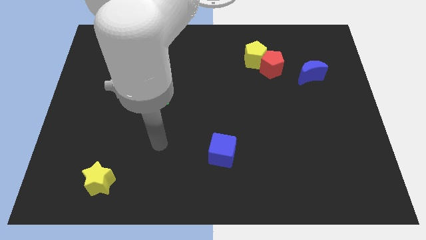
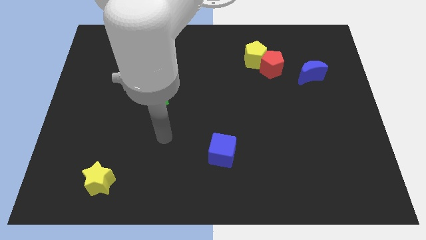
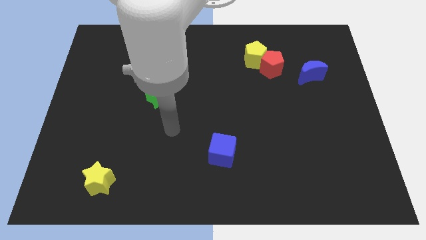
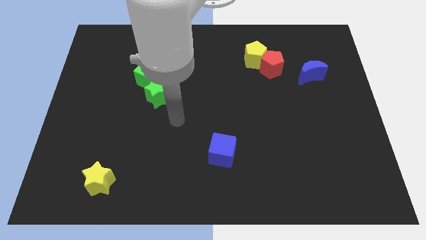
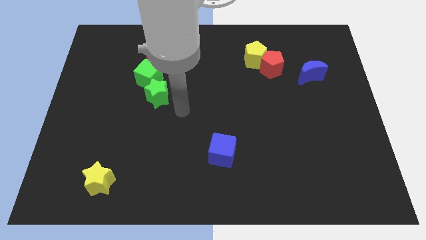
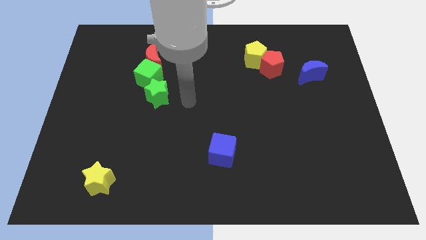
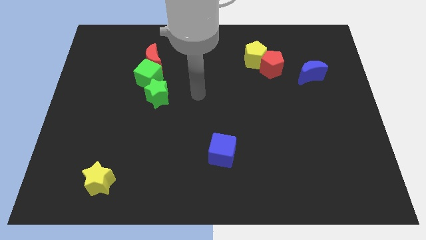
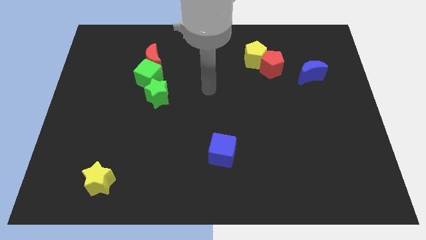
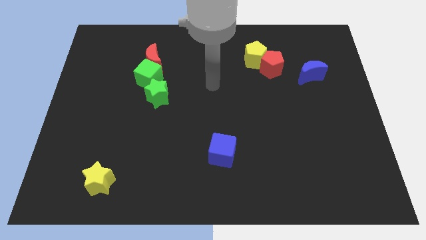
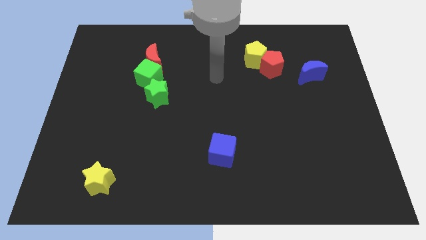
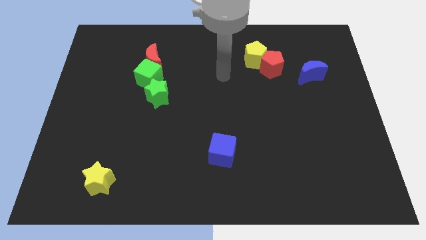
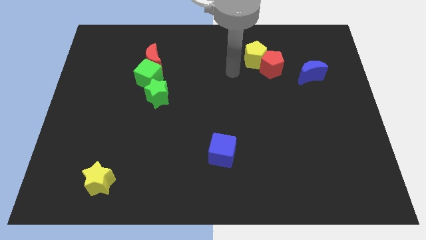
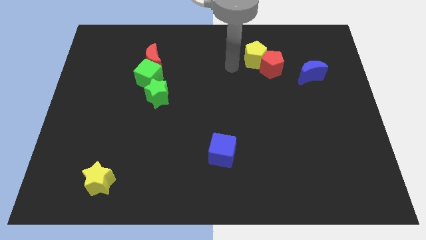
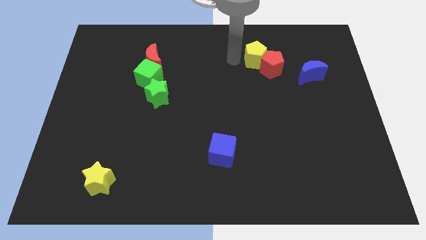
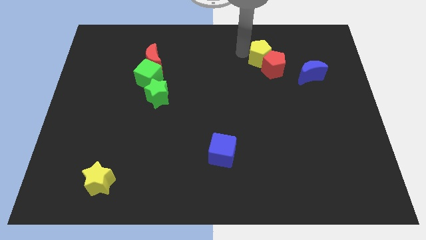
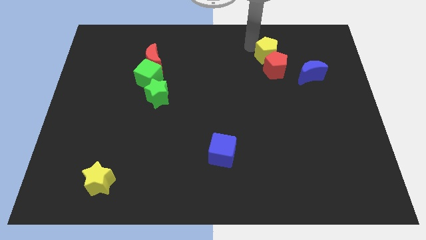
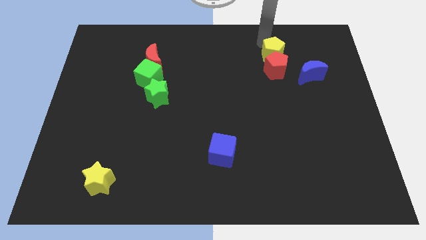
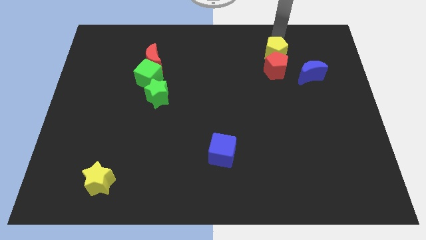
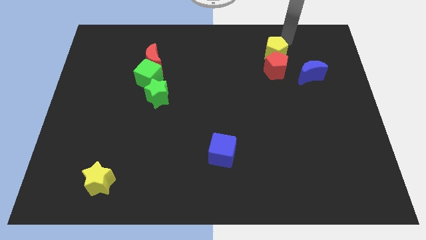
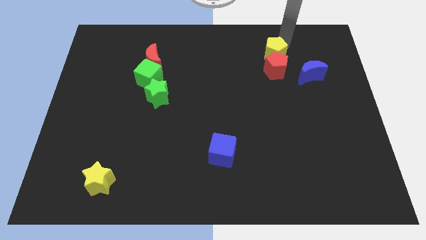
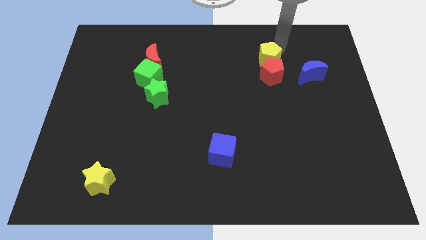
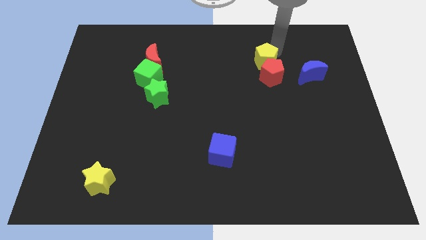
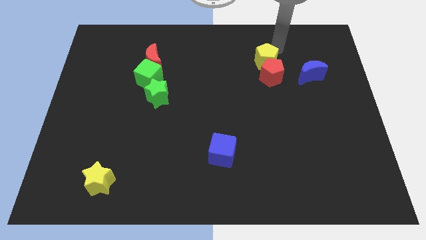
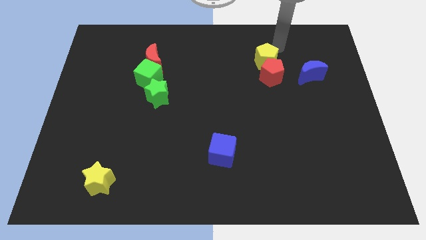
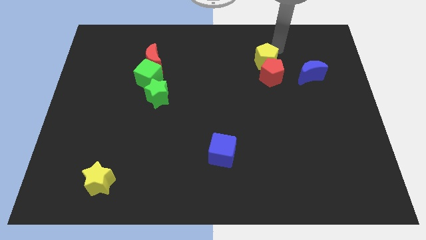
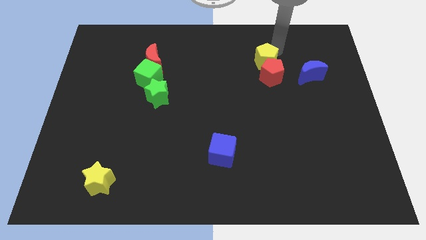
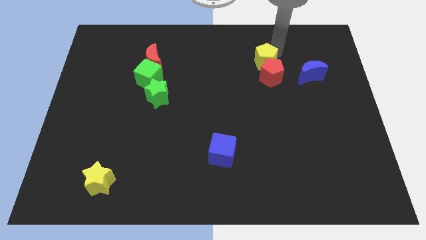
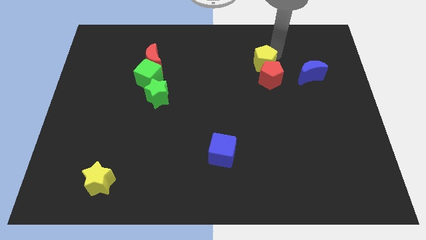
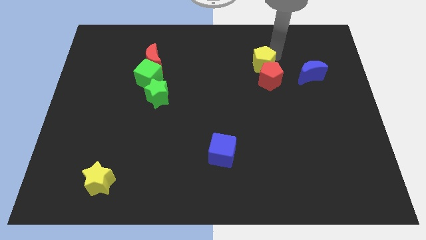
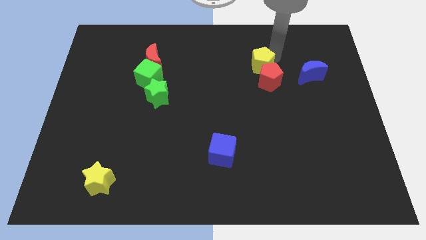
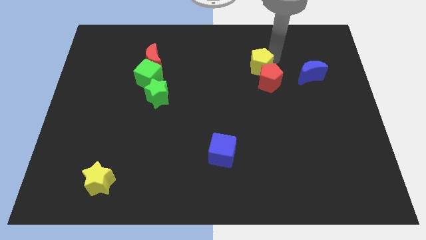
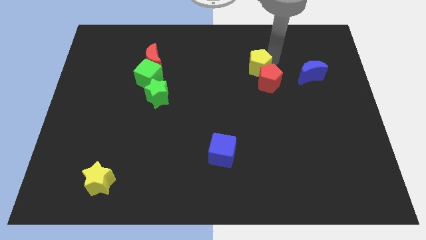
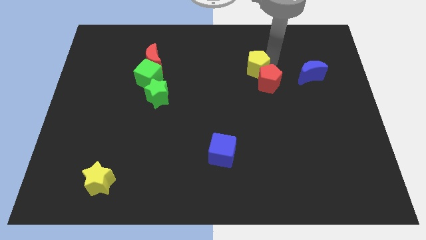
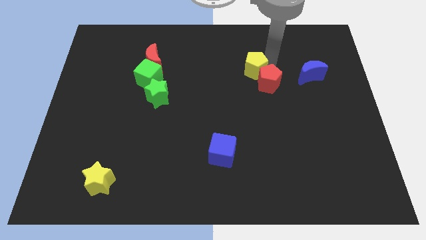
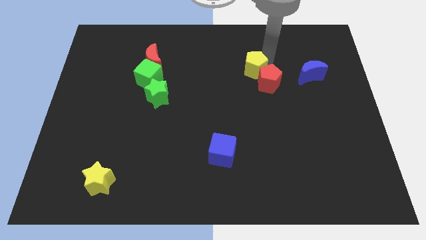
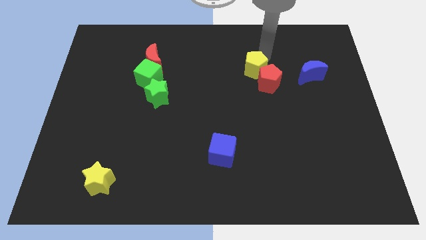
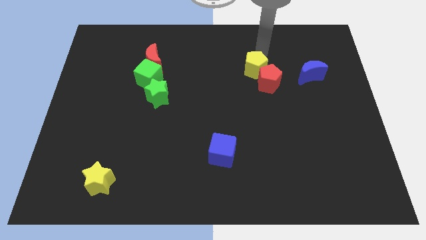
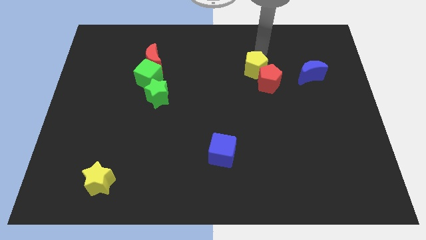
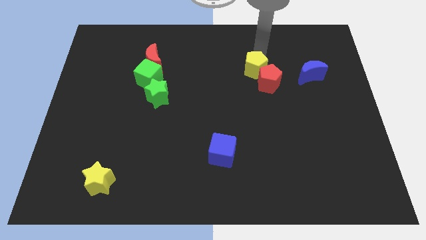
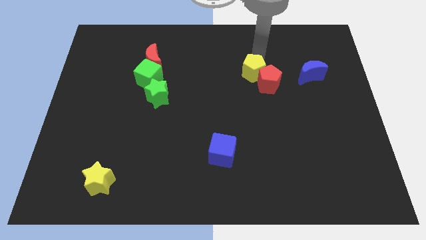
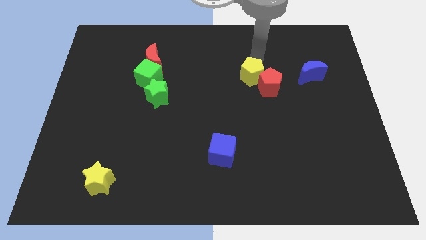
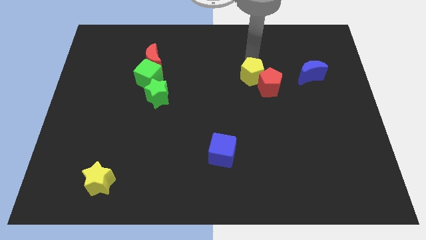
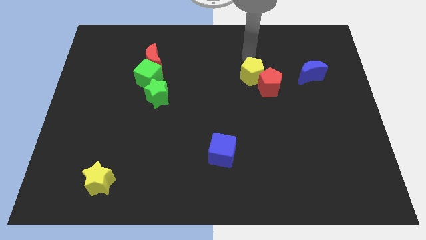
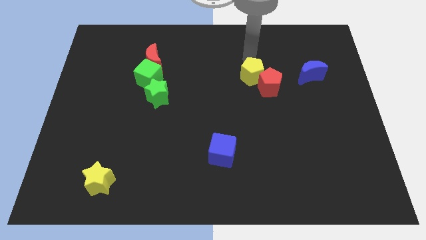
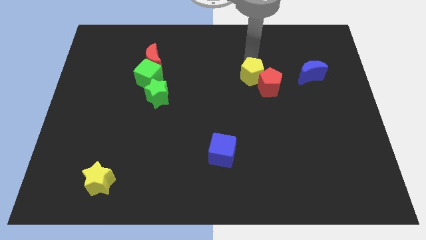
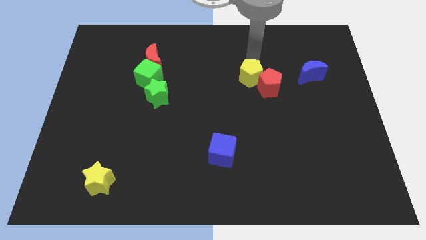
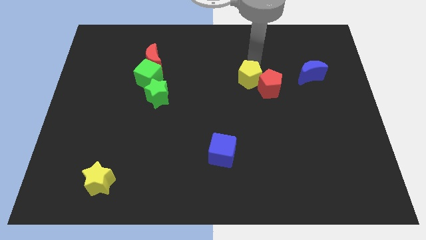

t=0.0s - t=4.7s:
slide the yellow pentagon a bit down

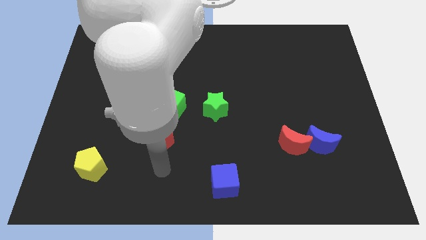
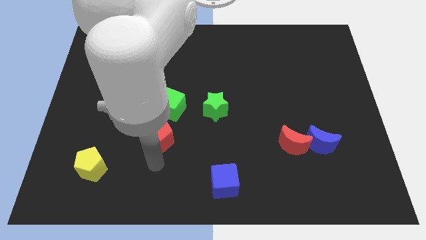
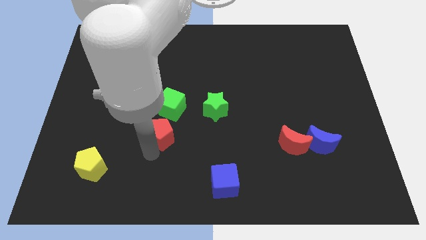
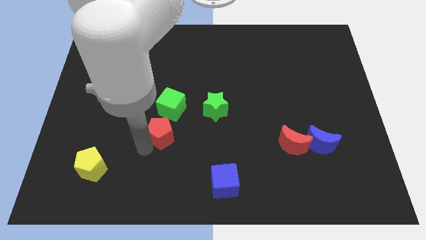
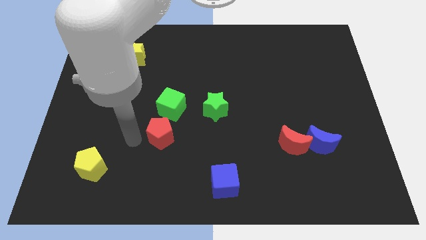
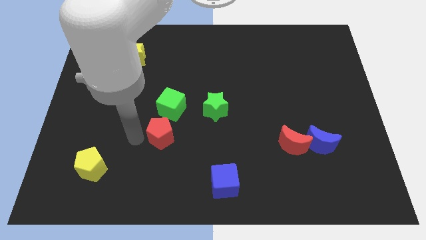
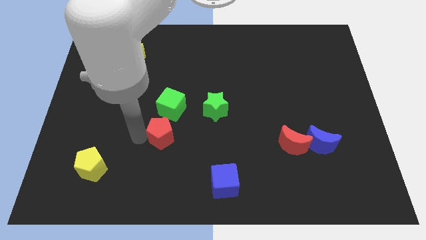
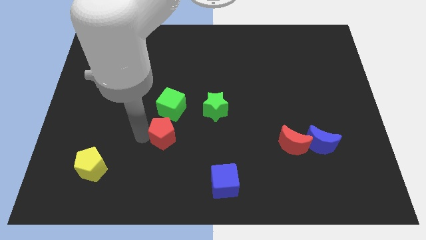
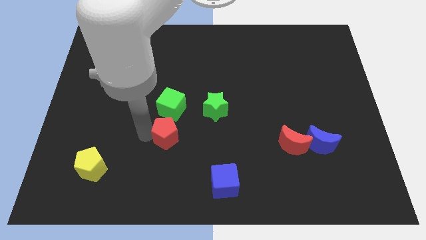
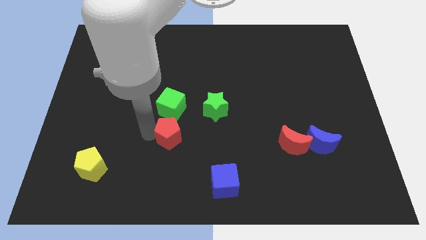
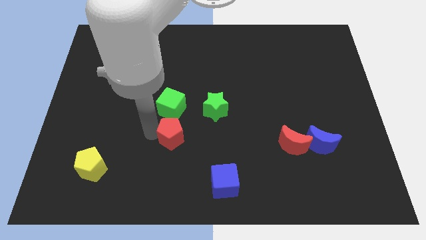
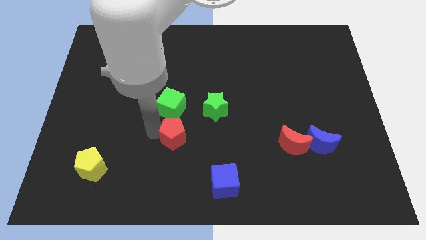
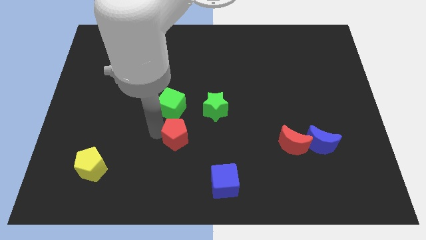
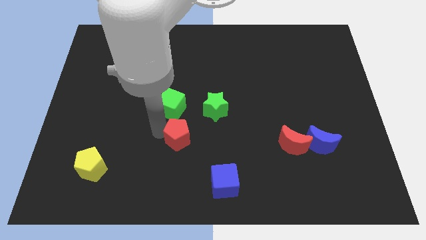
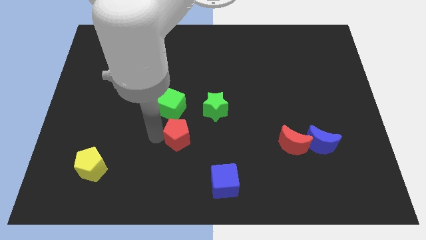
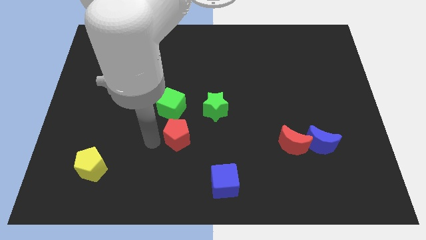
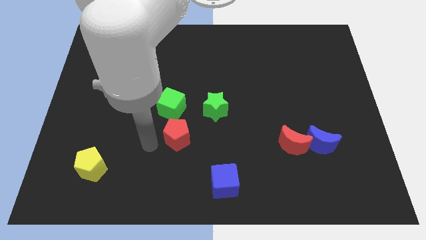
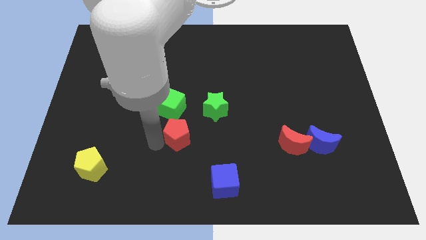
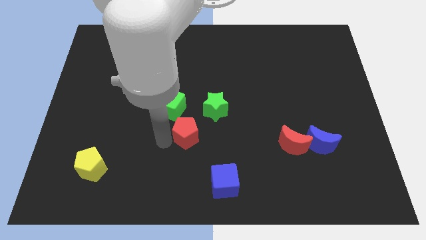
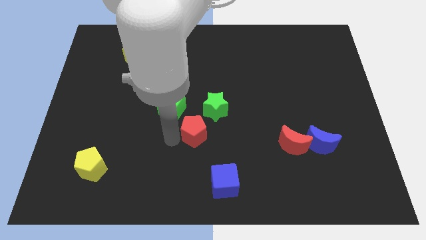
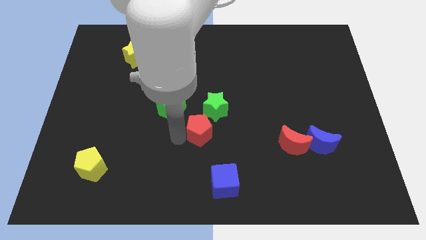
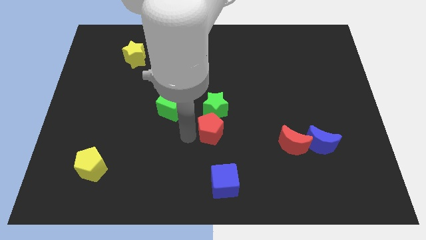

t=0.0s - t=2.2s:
slightly move the red pentagon up and to the right

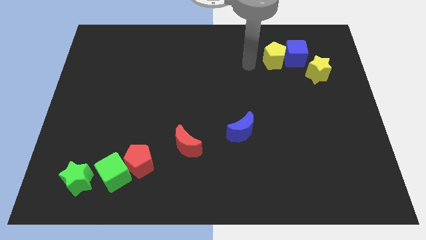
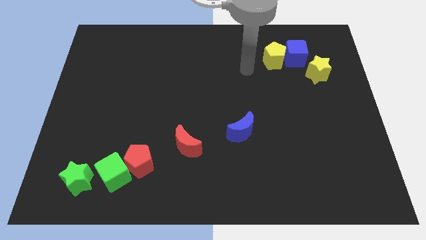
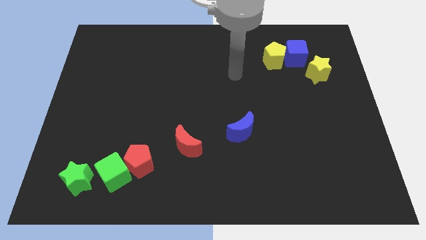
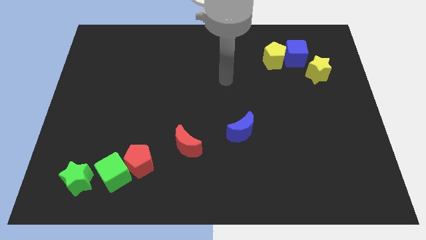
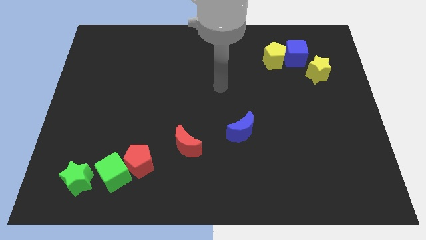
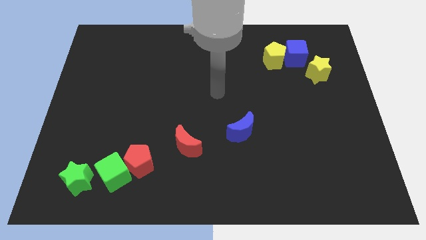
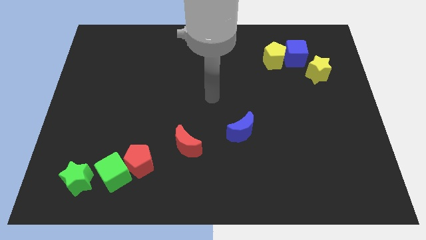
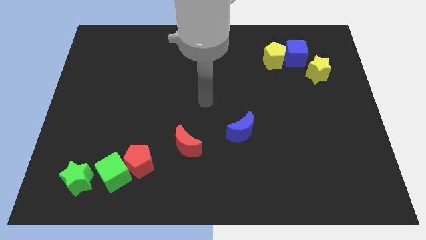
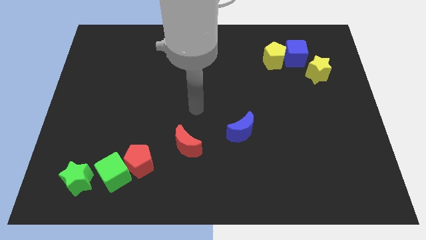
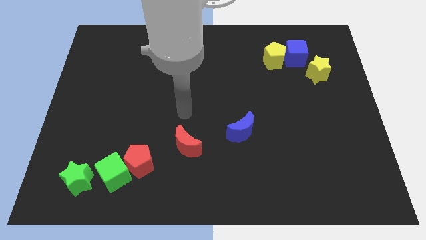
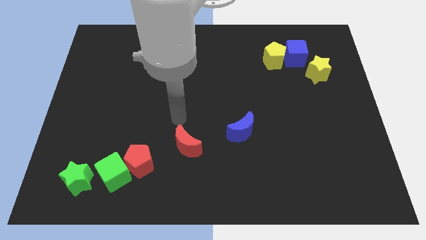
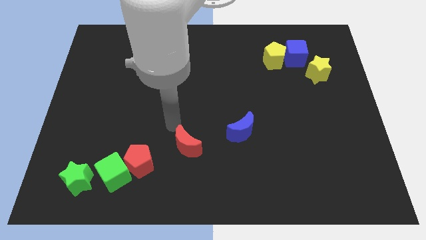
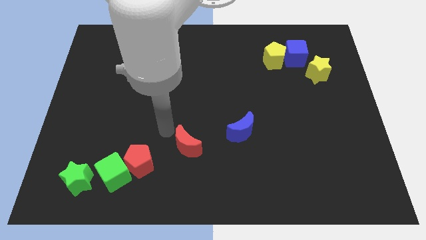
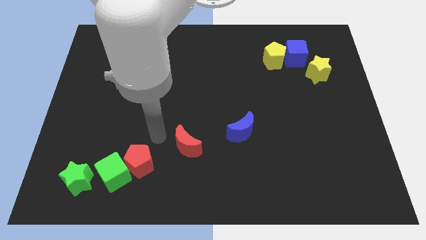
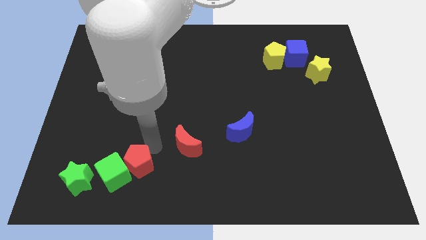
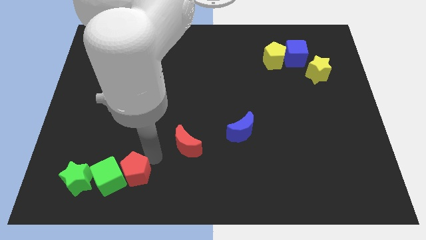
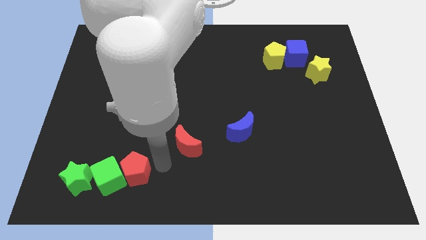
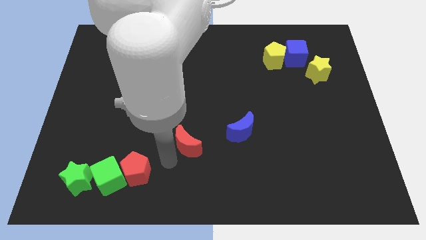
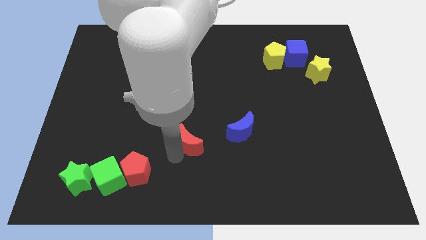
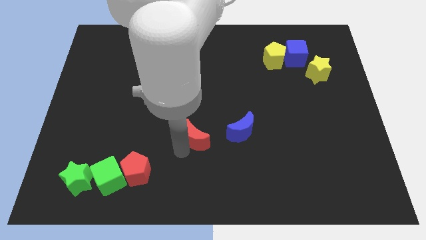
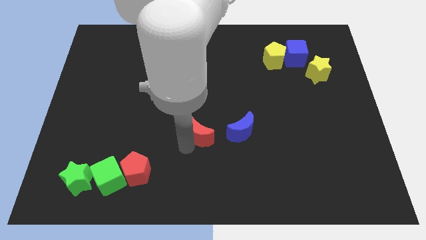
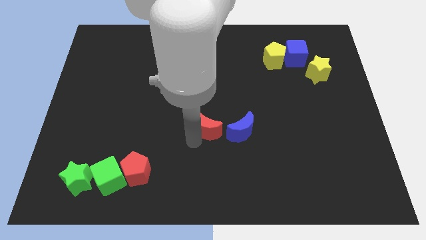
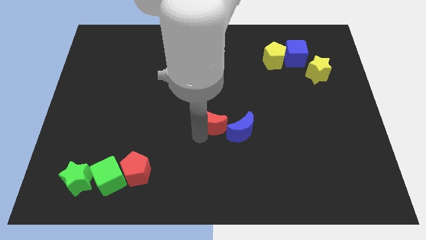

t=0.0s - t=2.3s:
push the red moon up and then to the right a bit
